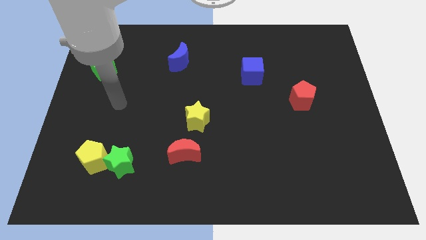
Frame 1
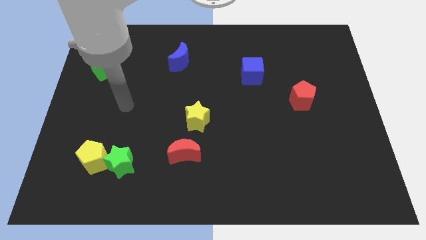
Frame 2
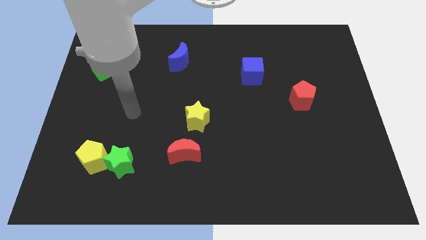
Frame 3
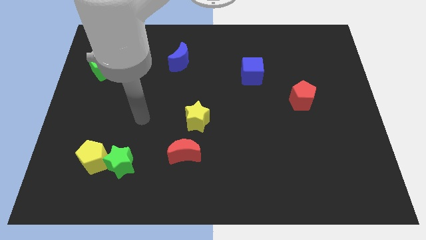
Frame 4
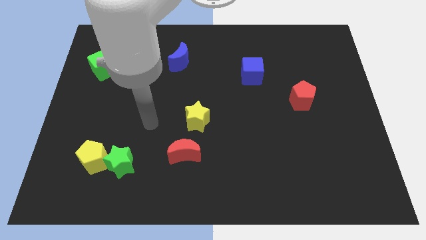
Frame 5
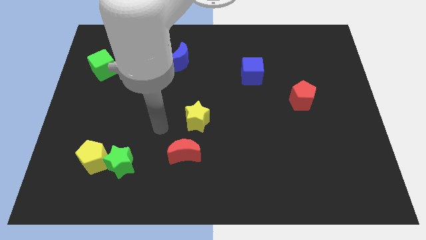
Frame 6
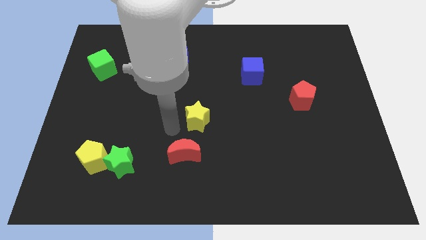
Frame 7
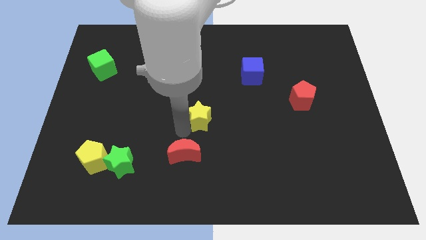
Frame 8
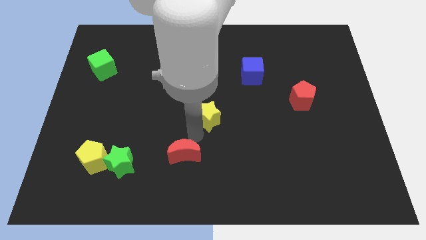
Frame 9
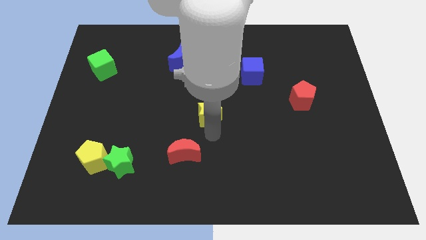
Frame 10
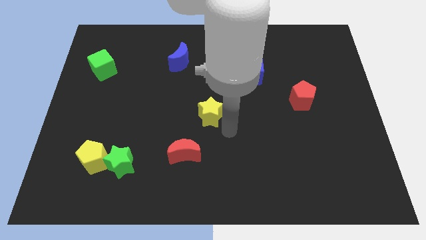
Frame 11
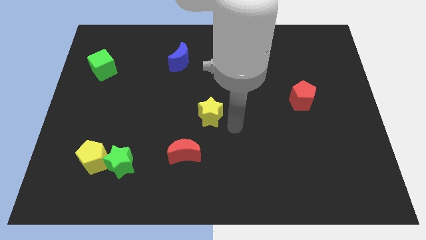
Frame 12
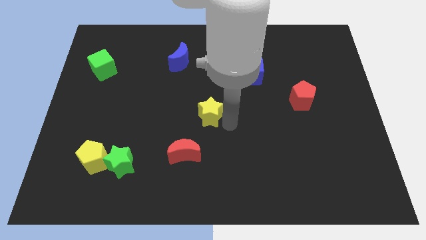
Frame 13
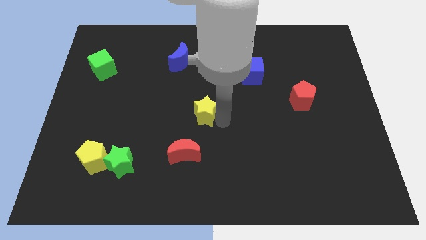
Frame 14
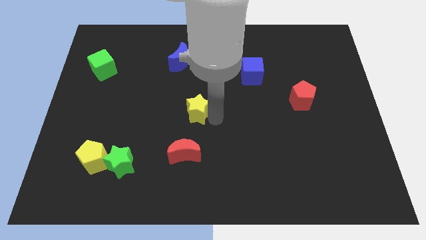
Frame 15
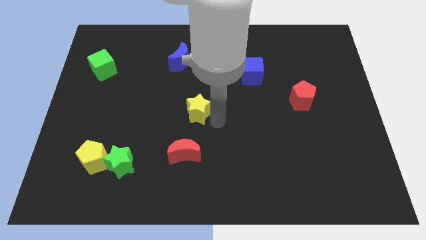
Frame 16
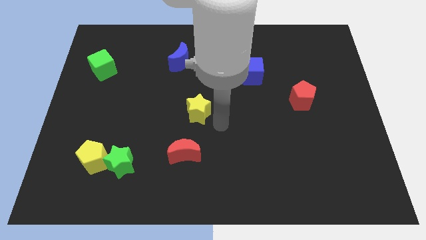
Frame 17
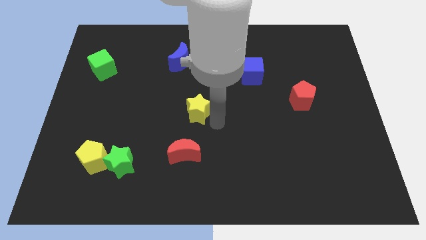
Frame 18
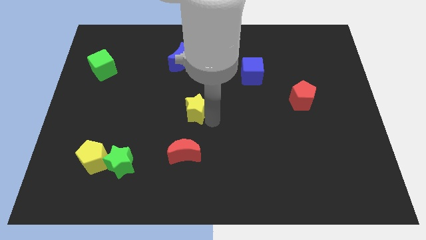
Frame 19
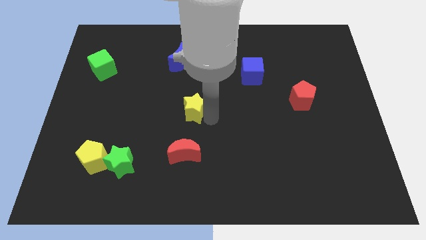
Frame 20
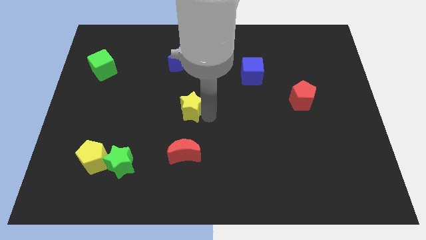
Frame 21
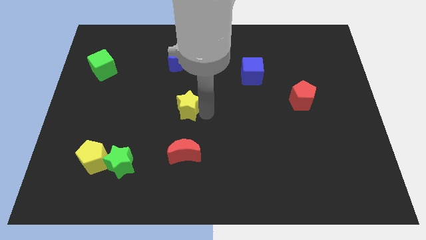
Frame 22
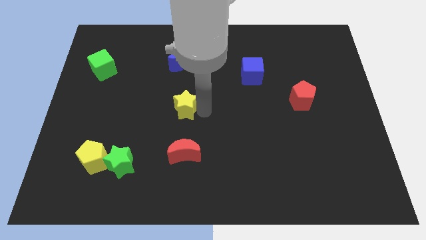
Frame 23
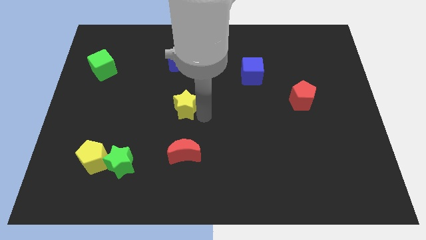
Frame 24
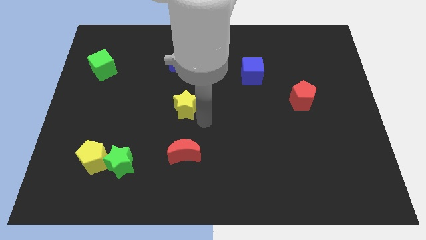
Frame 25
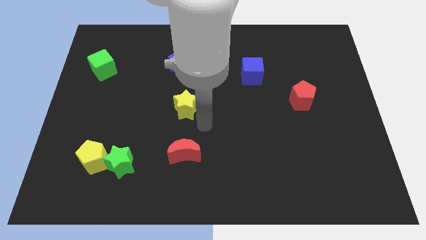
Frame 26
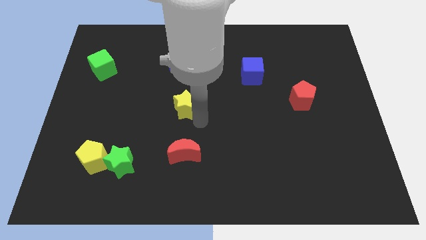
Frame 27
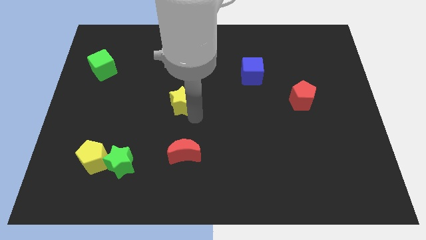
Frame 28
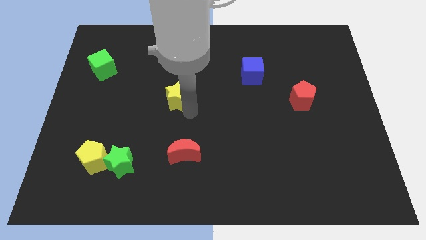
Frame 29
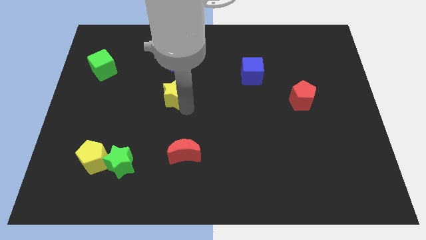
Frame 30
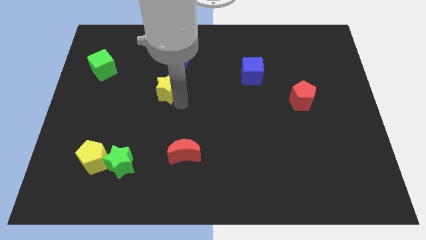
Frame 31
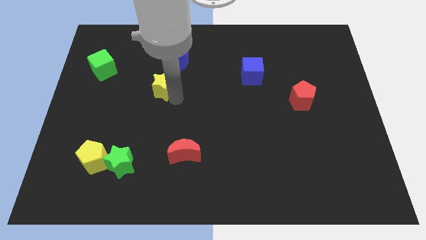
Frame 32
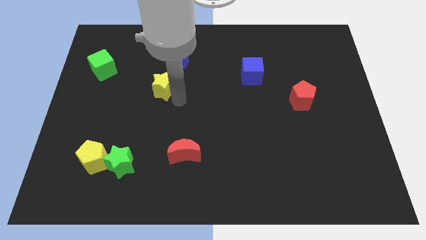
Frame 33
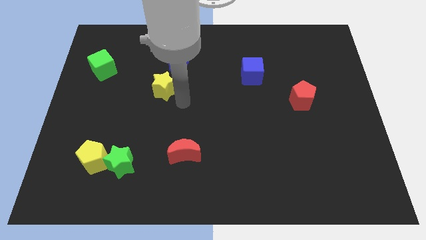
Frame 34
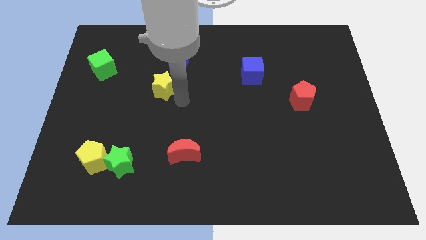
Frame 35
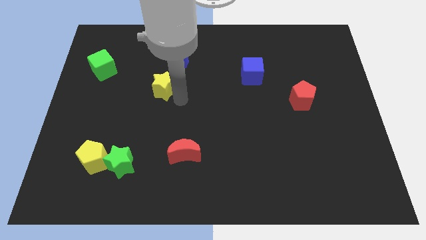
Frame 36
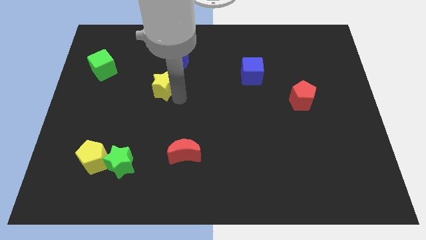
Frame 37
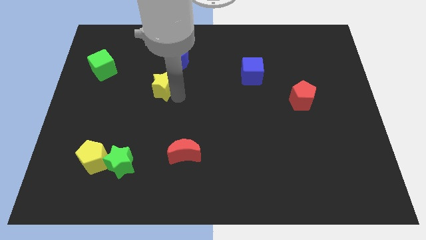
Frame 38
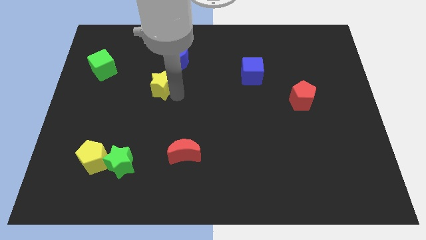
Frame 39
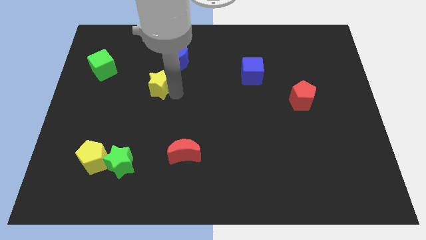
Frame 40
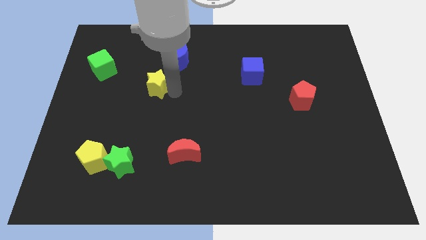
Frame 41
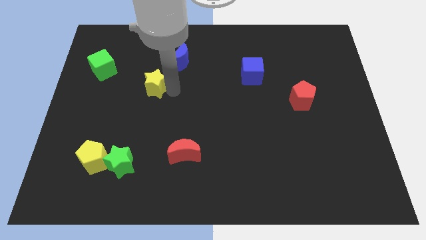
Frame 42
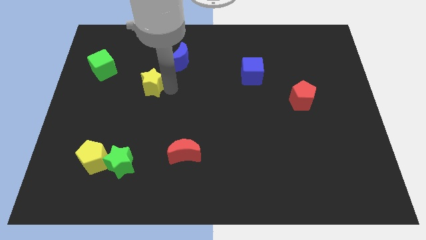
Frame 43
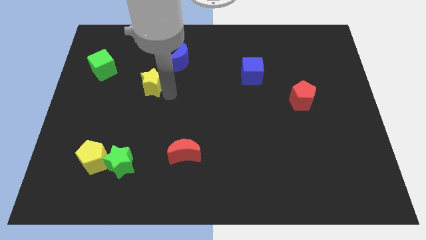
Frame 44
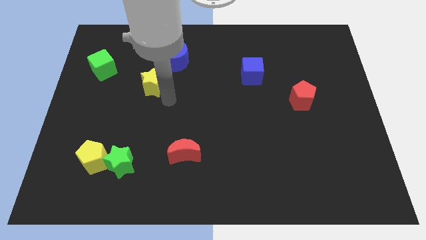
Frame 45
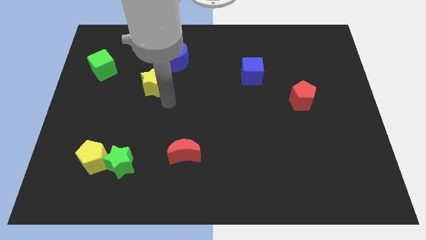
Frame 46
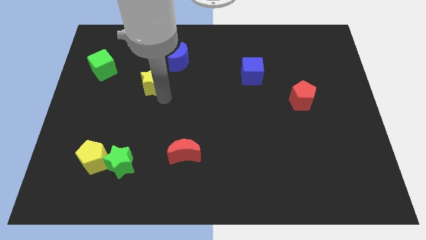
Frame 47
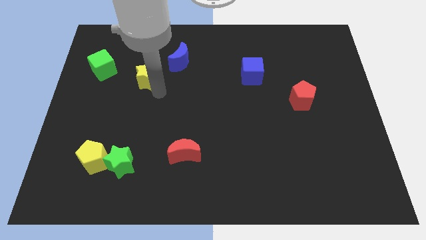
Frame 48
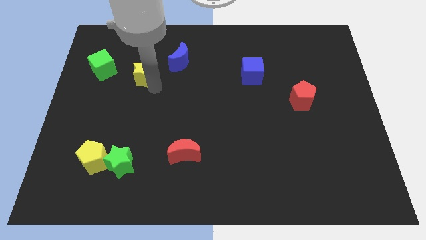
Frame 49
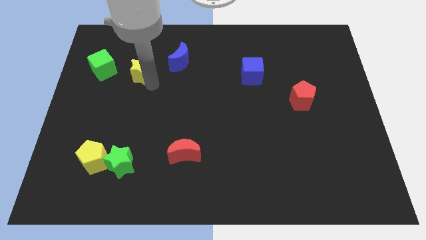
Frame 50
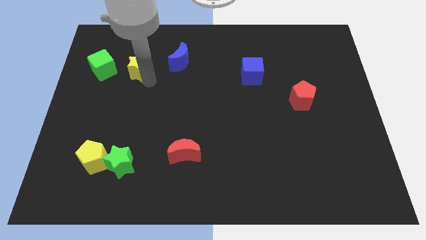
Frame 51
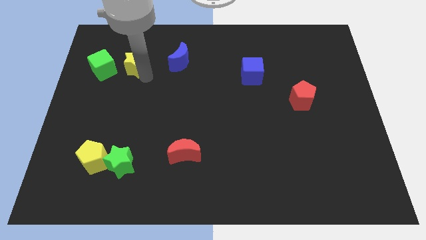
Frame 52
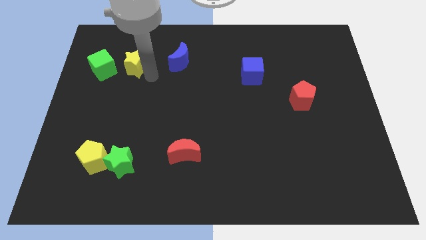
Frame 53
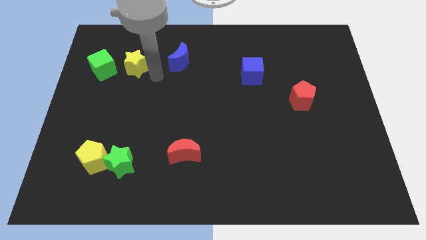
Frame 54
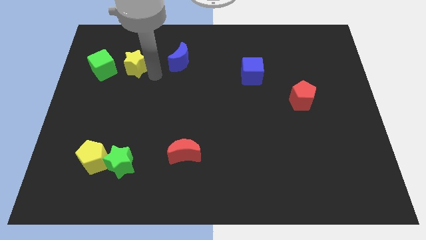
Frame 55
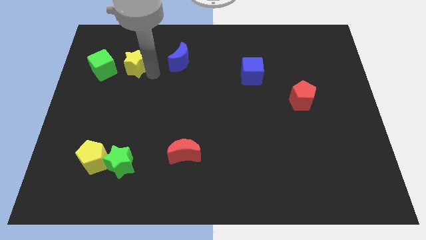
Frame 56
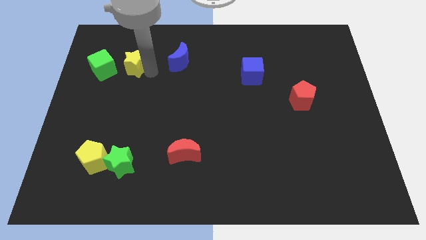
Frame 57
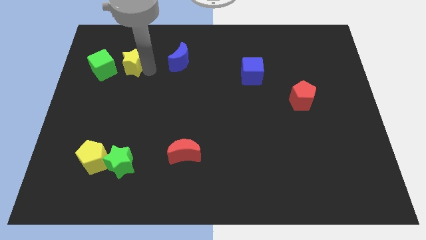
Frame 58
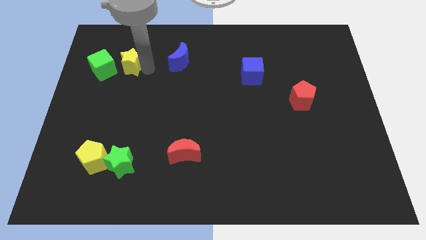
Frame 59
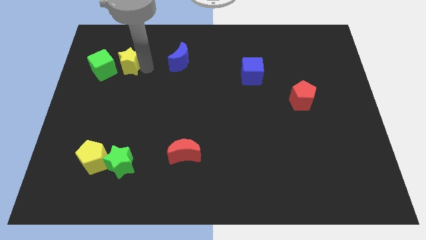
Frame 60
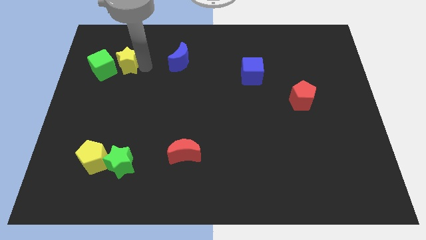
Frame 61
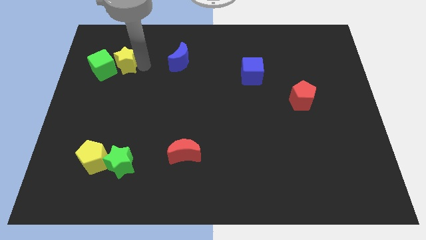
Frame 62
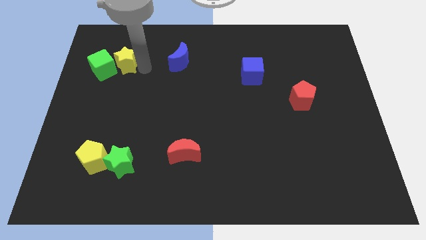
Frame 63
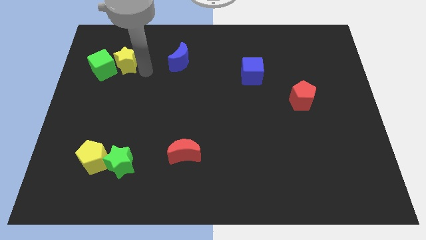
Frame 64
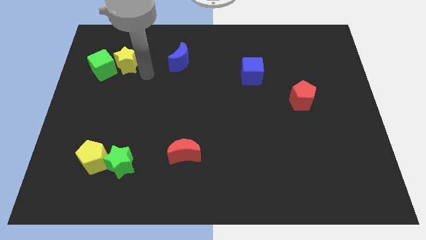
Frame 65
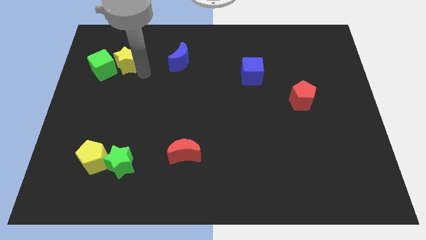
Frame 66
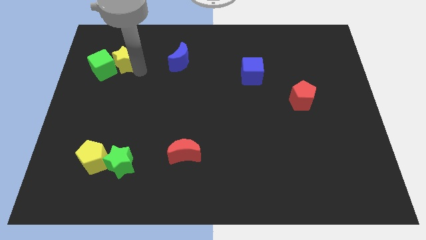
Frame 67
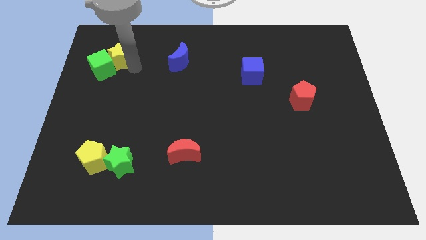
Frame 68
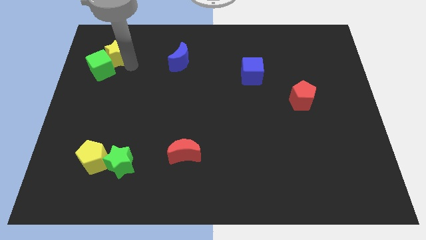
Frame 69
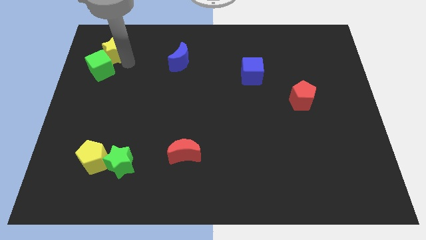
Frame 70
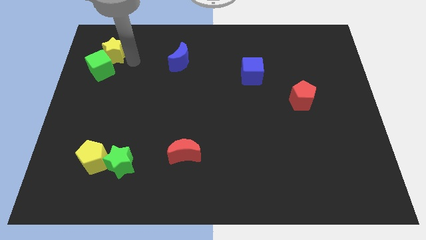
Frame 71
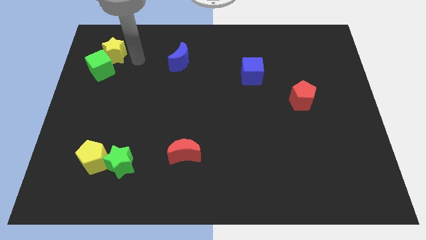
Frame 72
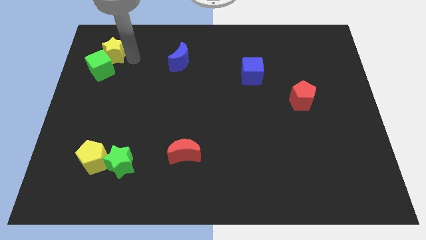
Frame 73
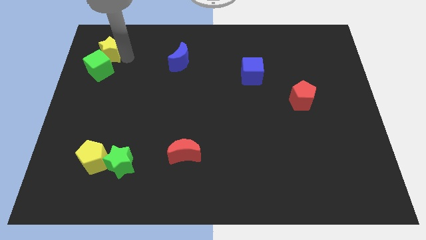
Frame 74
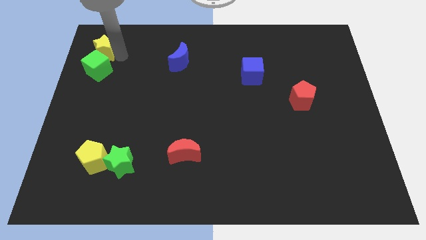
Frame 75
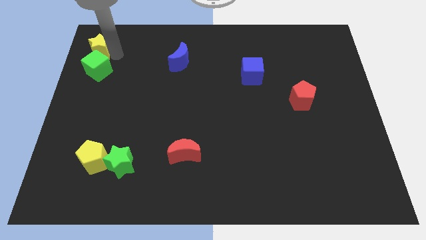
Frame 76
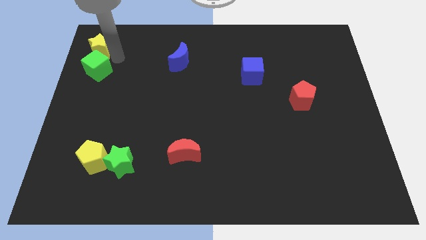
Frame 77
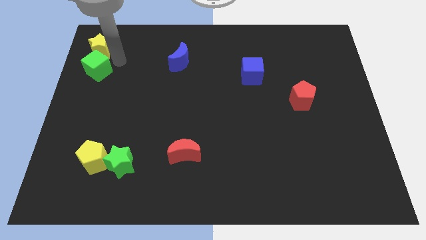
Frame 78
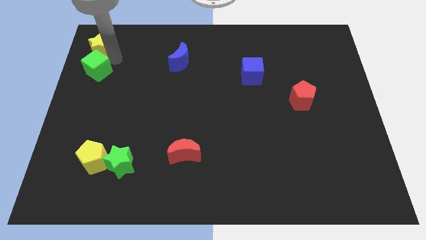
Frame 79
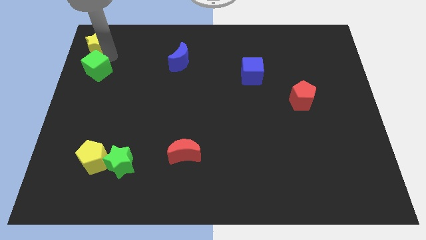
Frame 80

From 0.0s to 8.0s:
move the yellow star to the top left of the board
